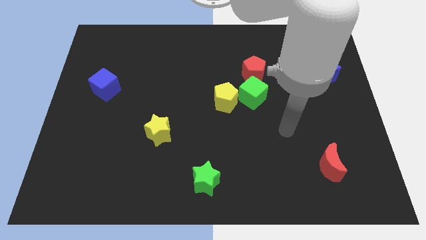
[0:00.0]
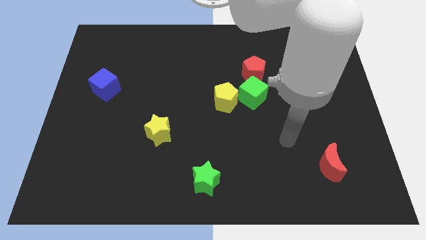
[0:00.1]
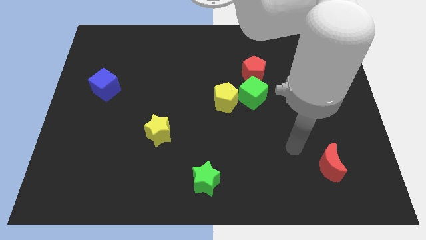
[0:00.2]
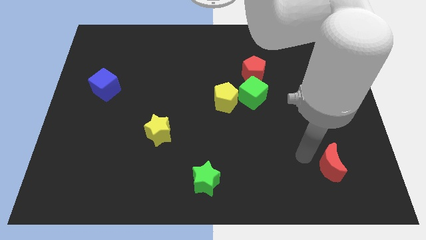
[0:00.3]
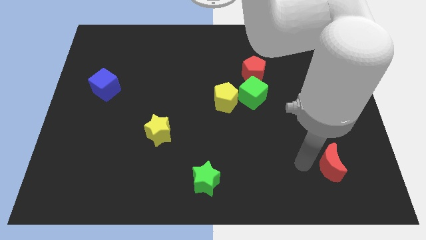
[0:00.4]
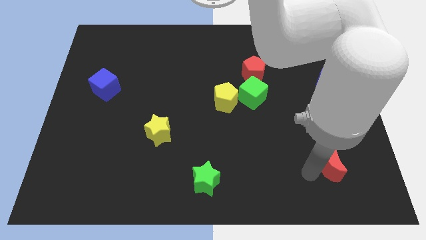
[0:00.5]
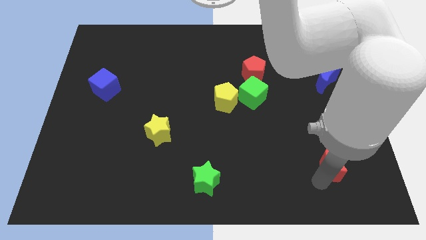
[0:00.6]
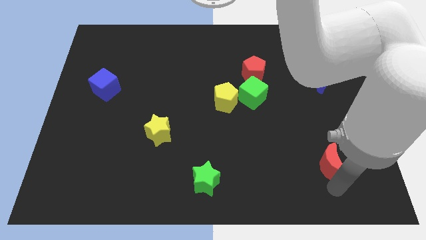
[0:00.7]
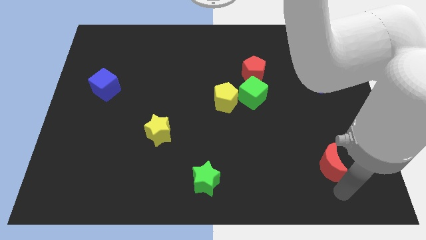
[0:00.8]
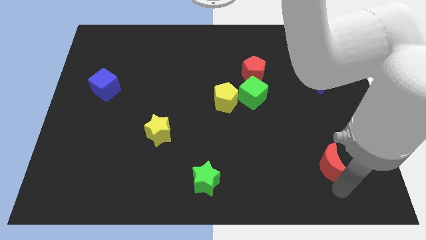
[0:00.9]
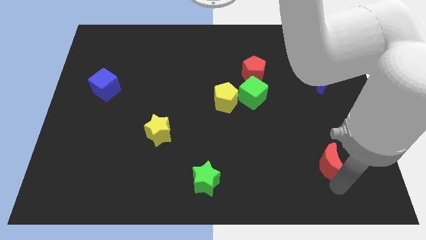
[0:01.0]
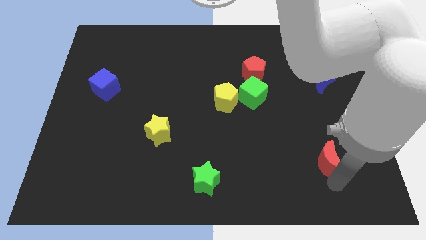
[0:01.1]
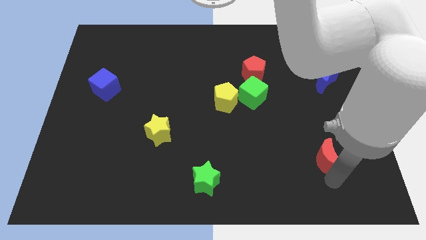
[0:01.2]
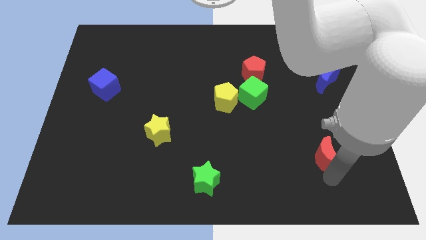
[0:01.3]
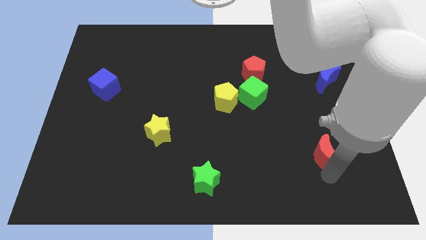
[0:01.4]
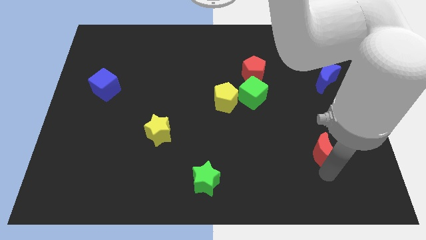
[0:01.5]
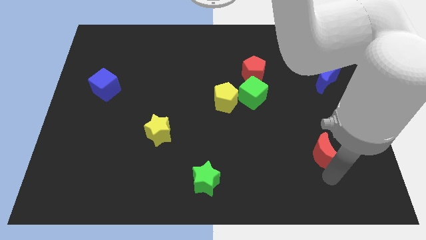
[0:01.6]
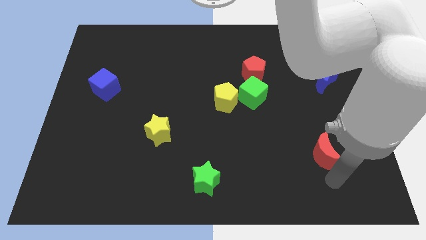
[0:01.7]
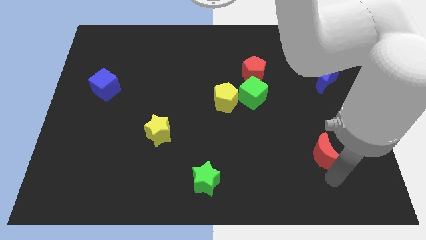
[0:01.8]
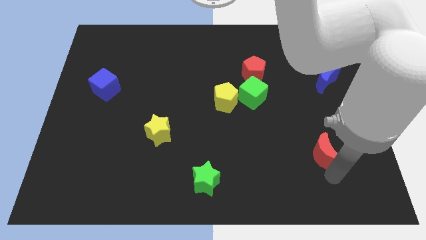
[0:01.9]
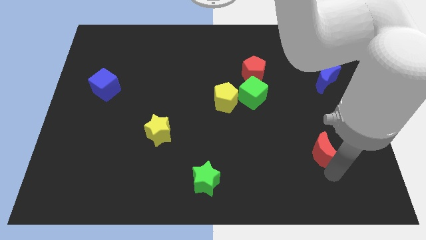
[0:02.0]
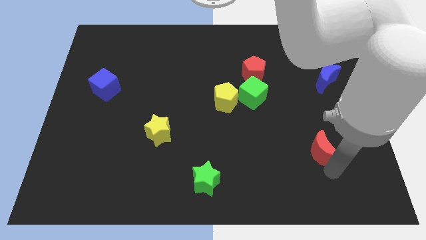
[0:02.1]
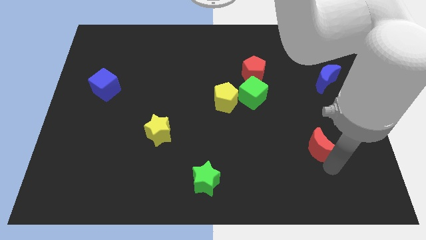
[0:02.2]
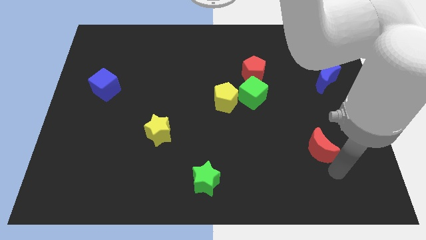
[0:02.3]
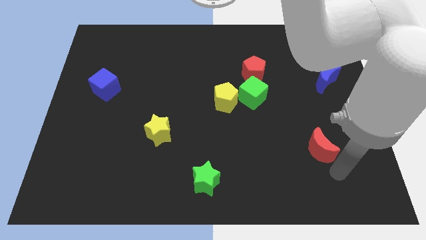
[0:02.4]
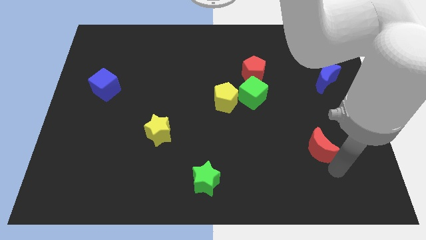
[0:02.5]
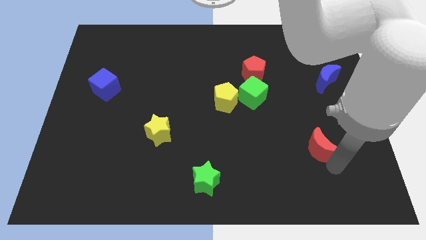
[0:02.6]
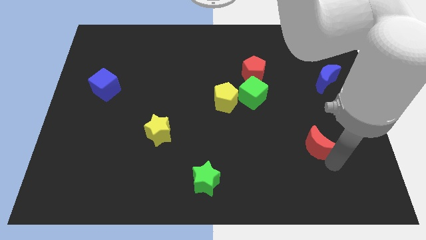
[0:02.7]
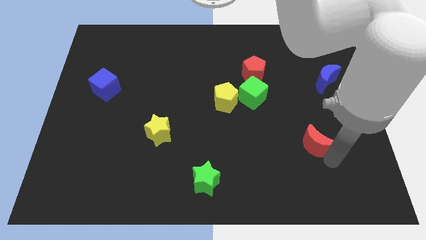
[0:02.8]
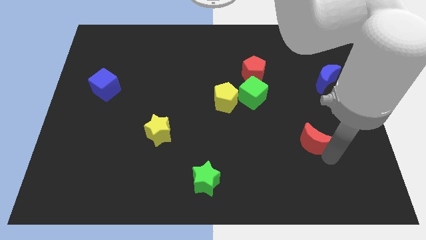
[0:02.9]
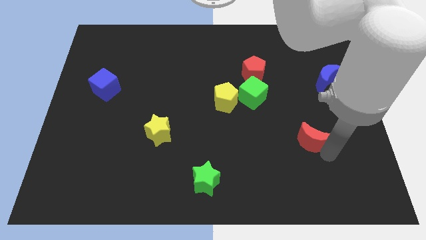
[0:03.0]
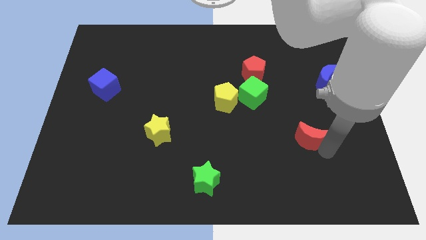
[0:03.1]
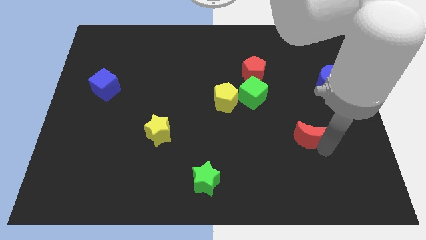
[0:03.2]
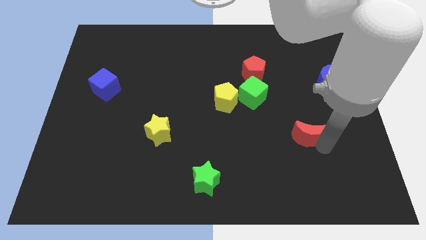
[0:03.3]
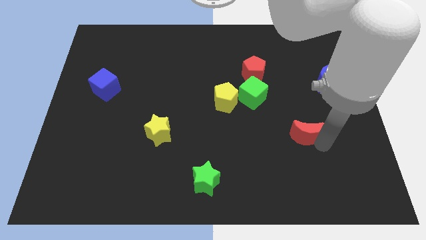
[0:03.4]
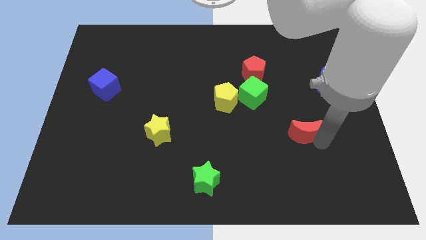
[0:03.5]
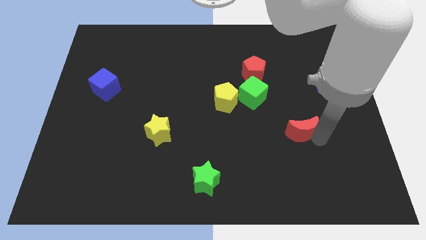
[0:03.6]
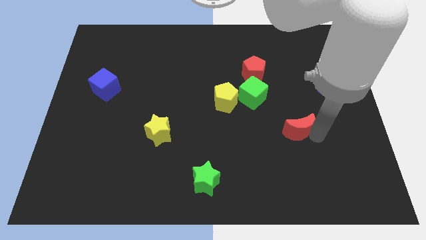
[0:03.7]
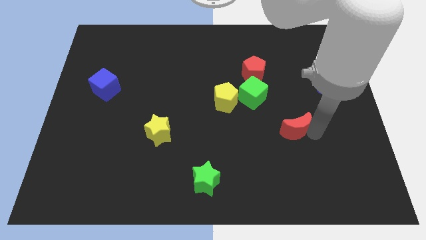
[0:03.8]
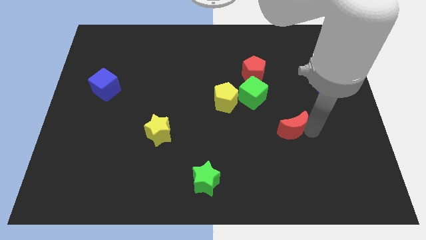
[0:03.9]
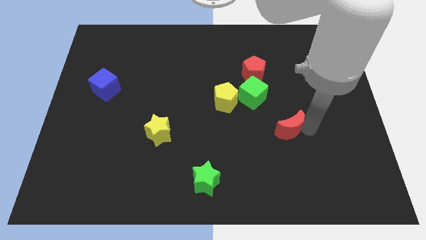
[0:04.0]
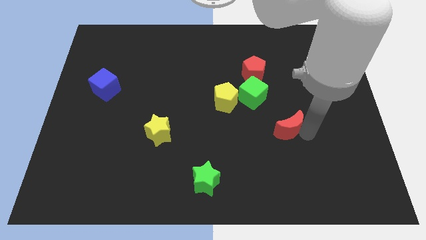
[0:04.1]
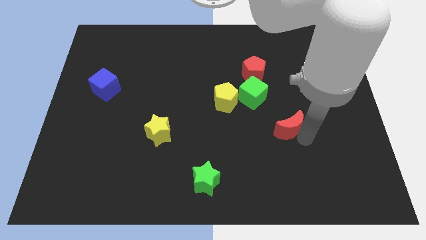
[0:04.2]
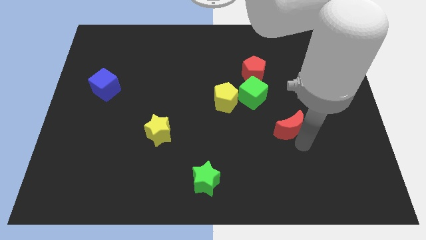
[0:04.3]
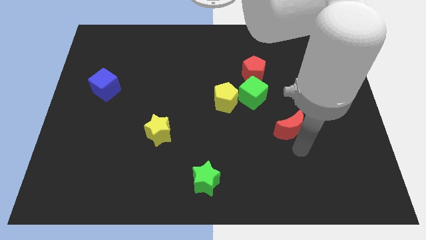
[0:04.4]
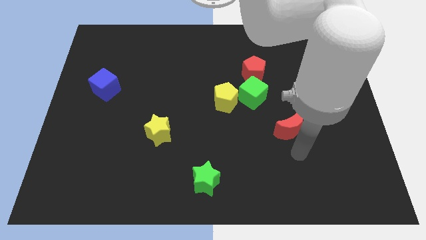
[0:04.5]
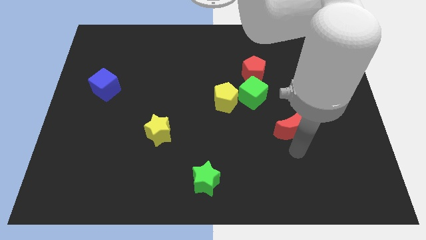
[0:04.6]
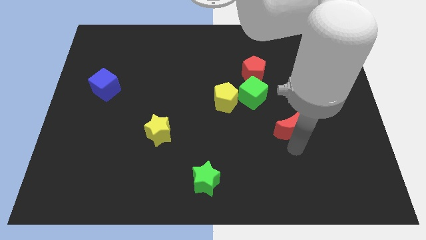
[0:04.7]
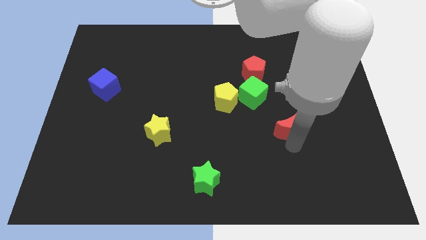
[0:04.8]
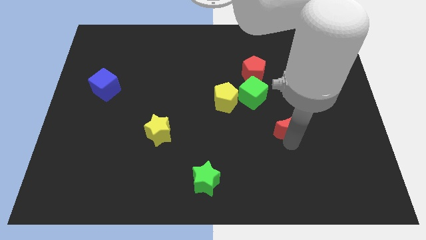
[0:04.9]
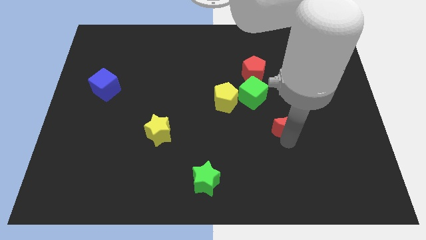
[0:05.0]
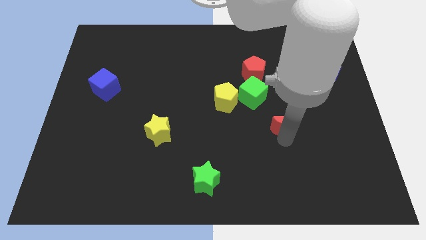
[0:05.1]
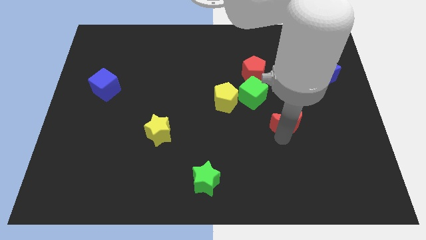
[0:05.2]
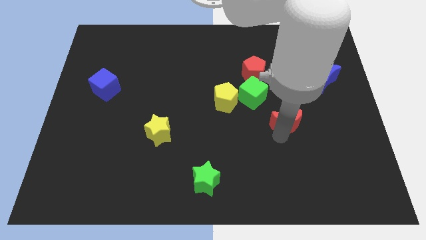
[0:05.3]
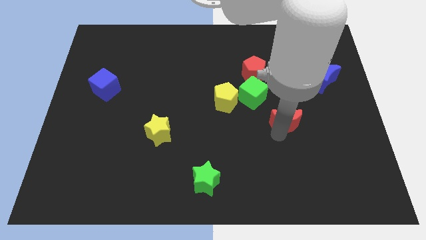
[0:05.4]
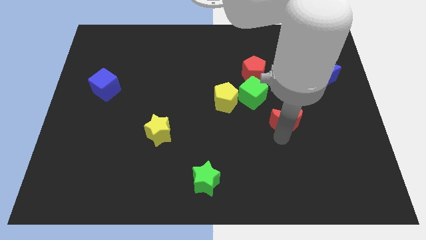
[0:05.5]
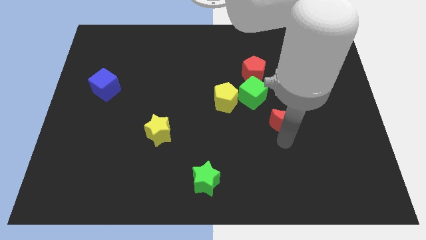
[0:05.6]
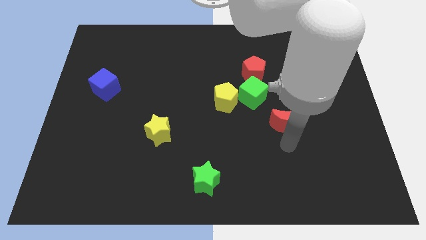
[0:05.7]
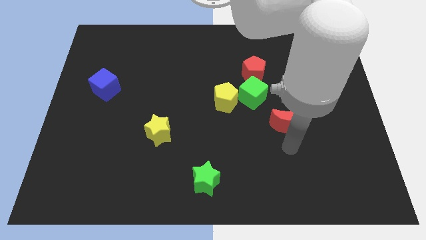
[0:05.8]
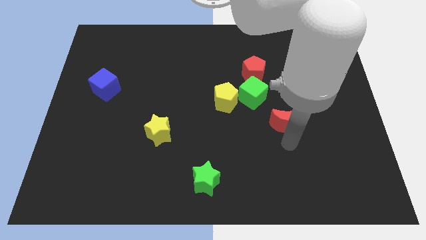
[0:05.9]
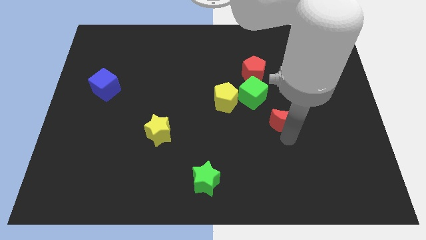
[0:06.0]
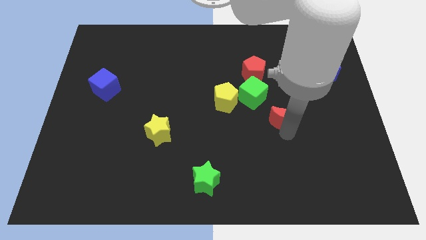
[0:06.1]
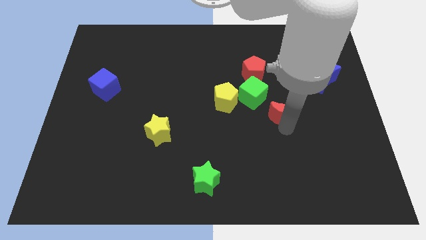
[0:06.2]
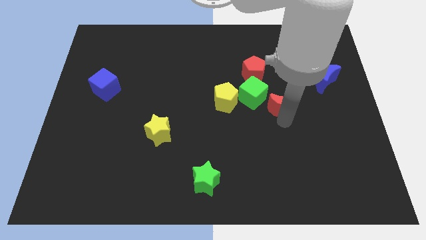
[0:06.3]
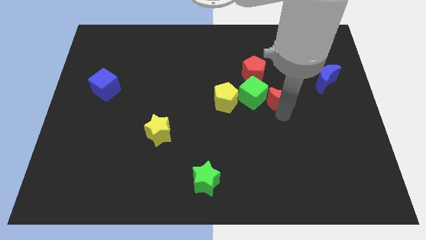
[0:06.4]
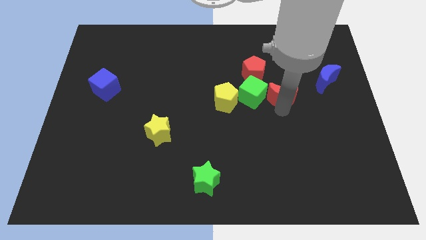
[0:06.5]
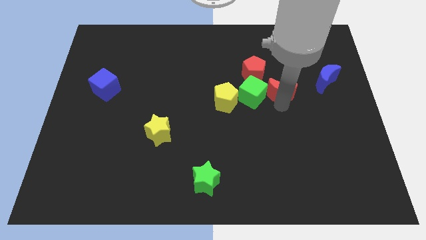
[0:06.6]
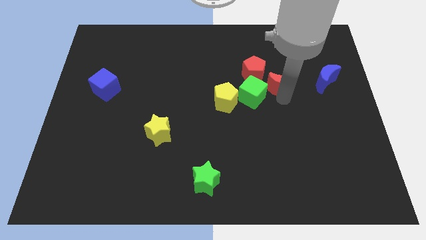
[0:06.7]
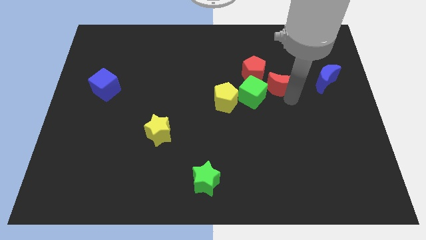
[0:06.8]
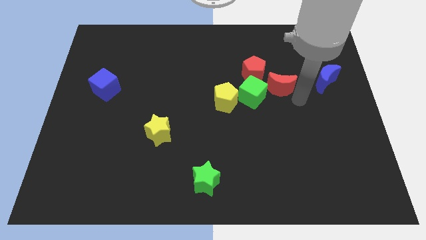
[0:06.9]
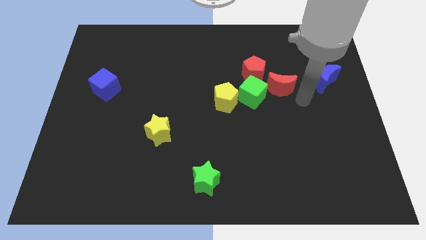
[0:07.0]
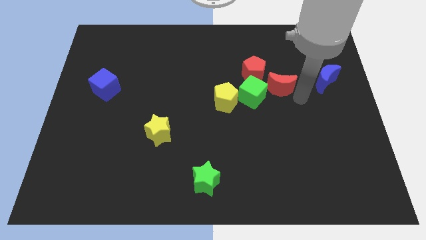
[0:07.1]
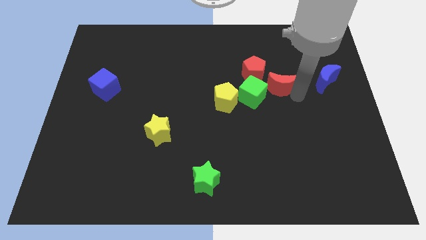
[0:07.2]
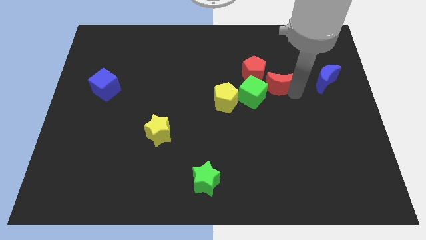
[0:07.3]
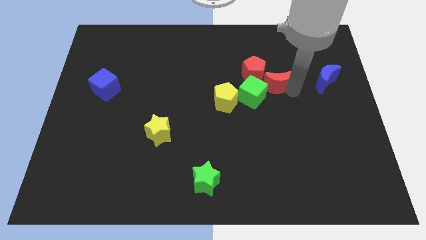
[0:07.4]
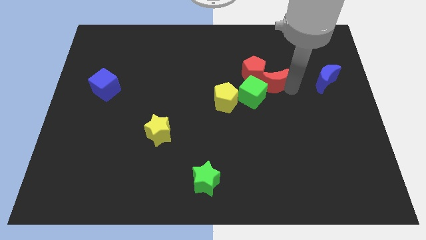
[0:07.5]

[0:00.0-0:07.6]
put the red moon to the red pentagon
